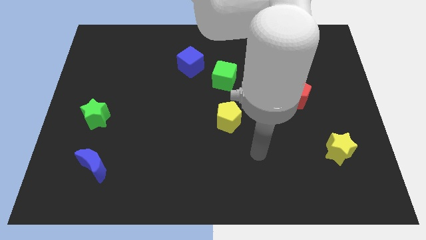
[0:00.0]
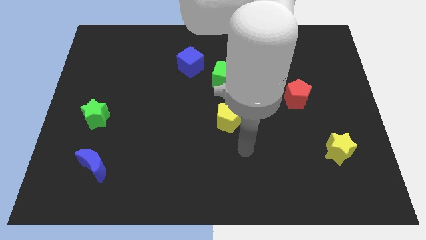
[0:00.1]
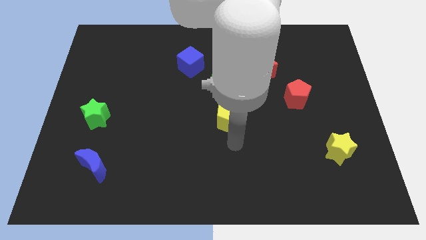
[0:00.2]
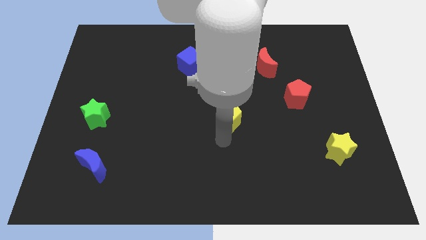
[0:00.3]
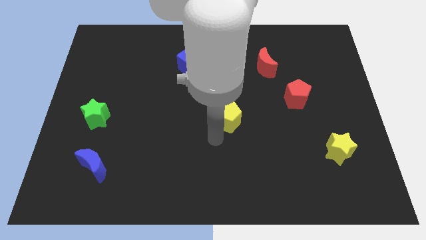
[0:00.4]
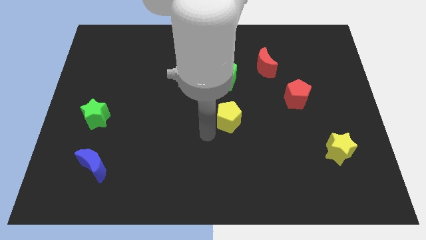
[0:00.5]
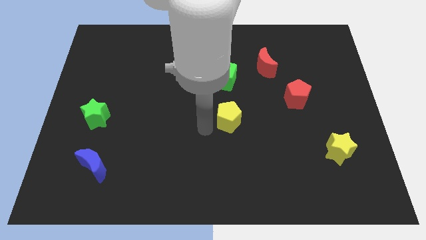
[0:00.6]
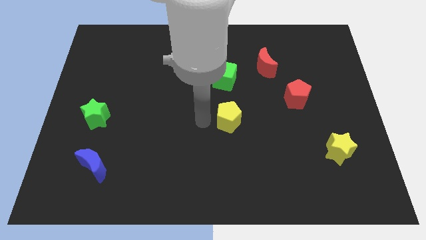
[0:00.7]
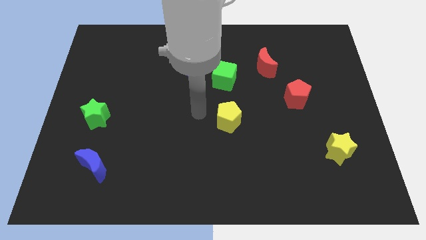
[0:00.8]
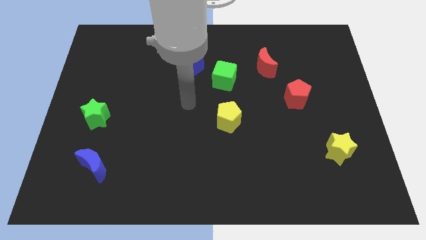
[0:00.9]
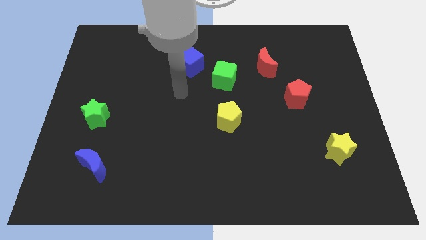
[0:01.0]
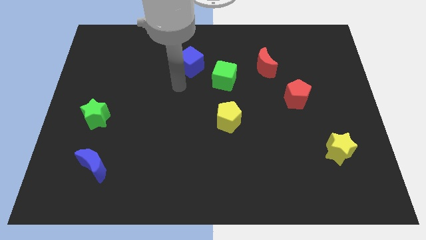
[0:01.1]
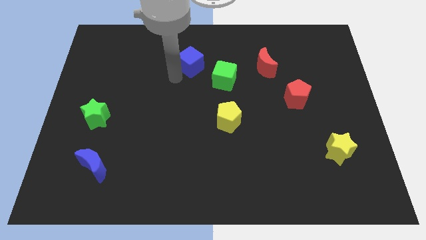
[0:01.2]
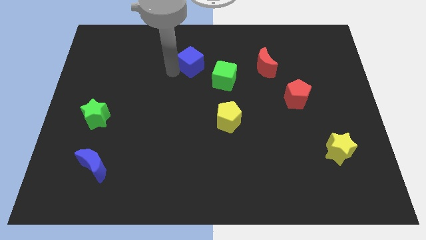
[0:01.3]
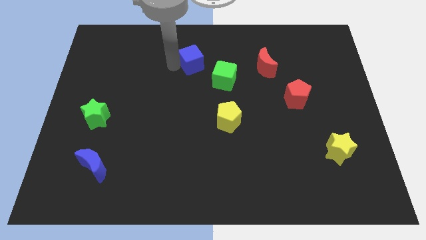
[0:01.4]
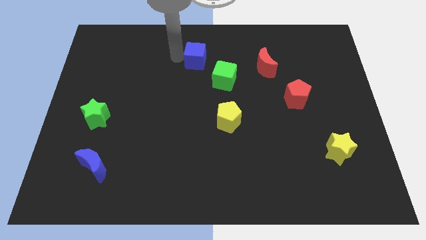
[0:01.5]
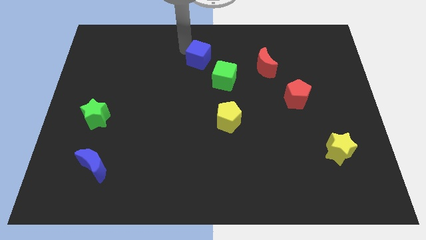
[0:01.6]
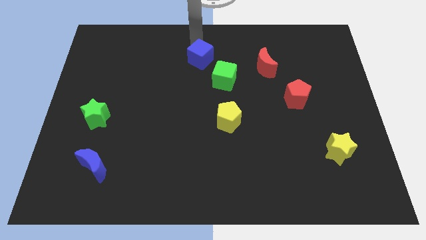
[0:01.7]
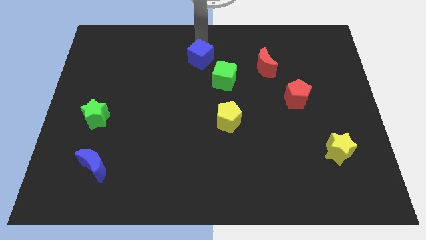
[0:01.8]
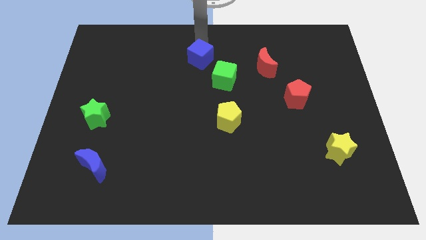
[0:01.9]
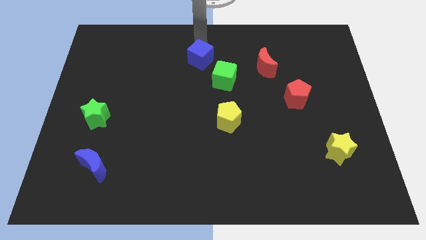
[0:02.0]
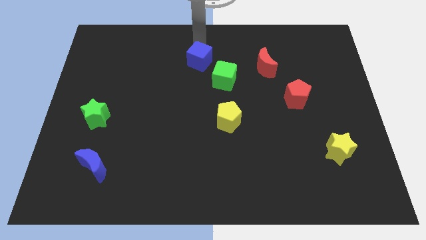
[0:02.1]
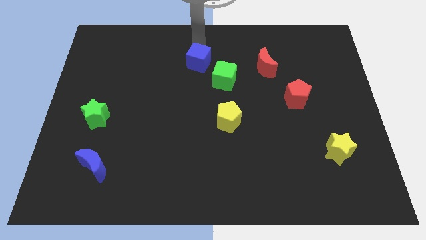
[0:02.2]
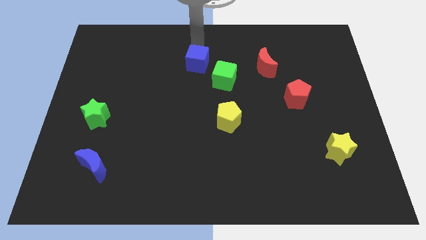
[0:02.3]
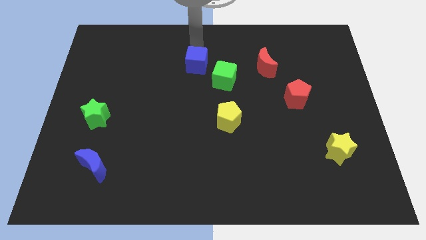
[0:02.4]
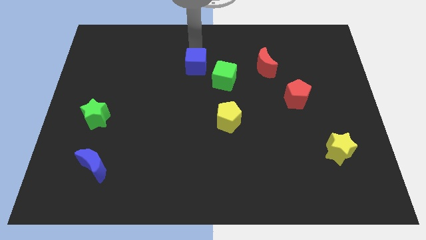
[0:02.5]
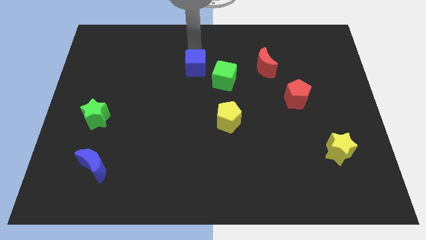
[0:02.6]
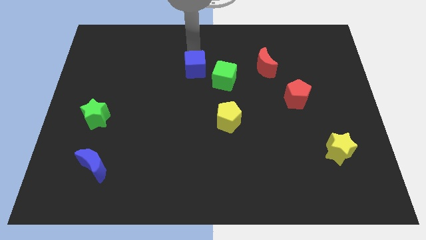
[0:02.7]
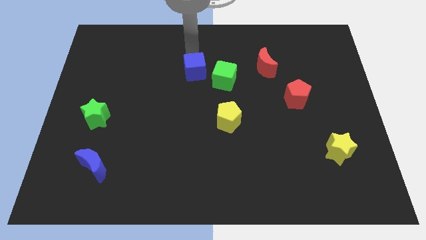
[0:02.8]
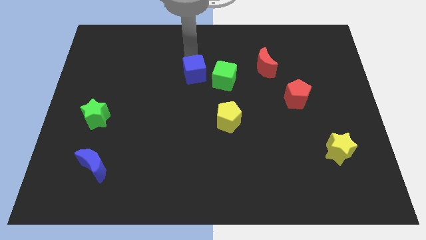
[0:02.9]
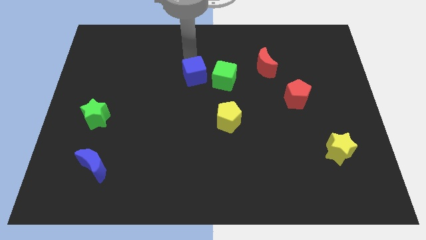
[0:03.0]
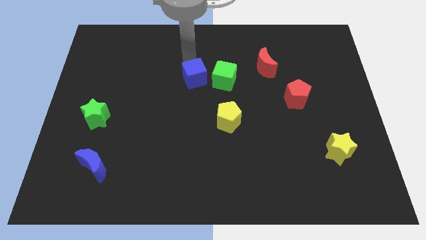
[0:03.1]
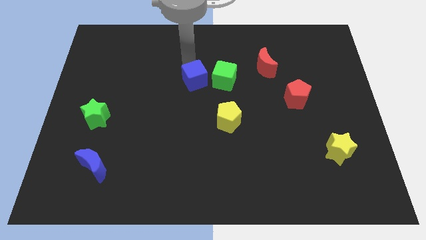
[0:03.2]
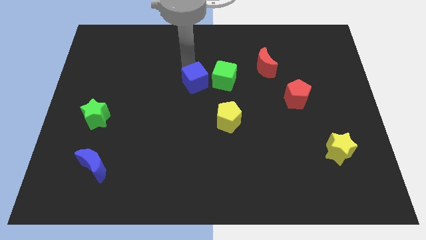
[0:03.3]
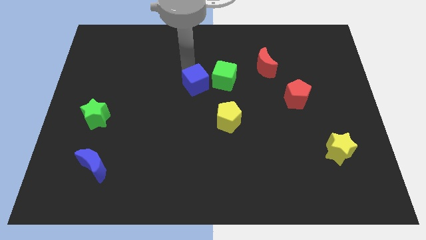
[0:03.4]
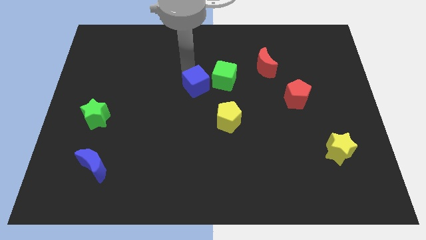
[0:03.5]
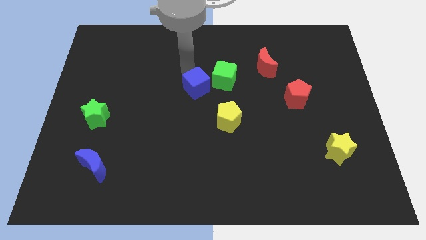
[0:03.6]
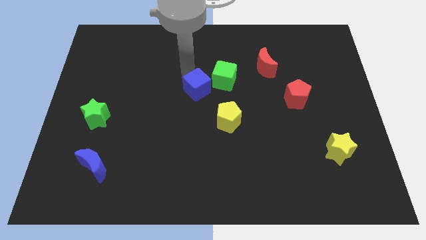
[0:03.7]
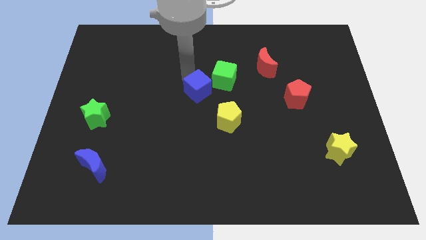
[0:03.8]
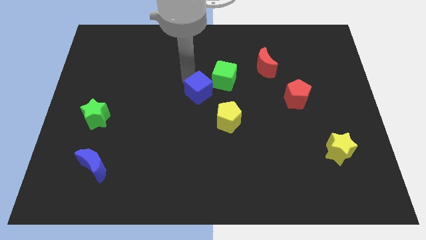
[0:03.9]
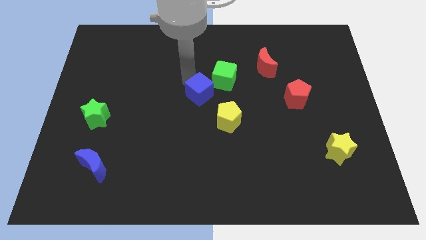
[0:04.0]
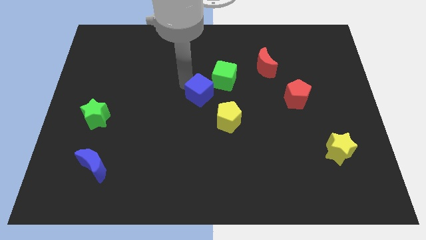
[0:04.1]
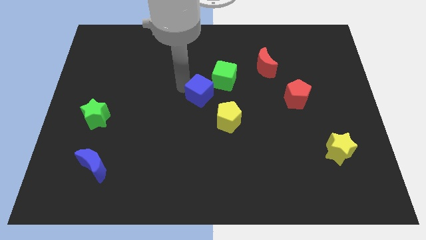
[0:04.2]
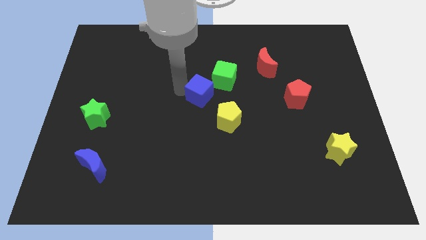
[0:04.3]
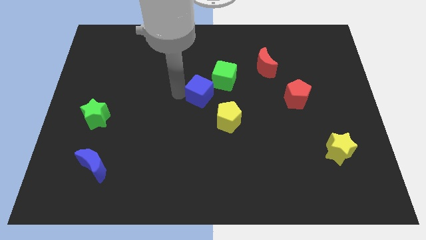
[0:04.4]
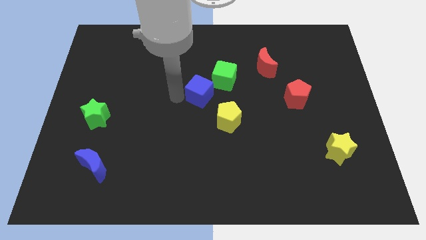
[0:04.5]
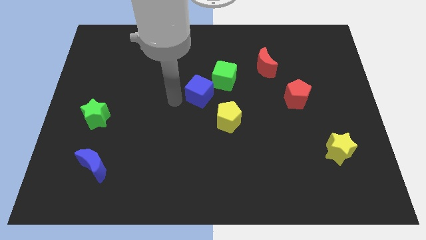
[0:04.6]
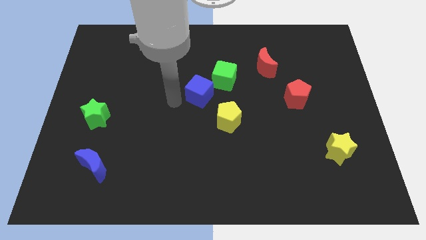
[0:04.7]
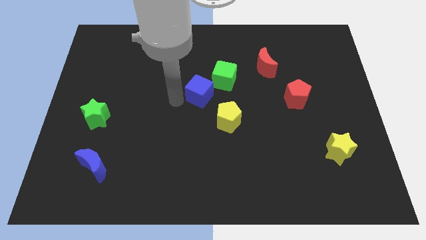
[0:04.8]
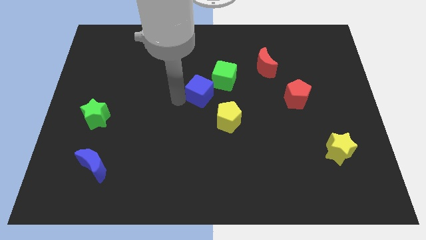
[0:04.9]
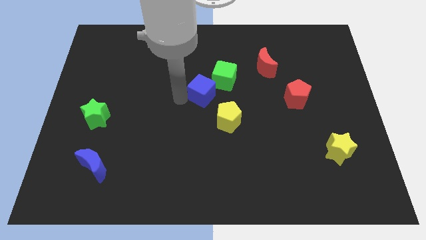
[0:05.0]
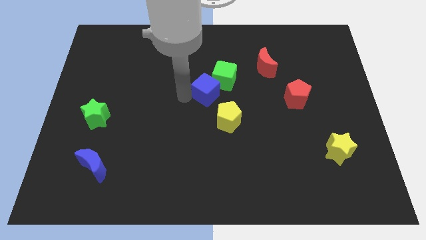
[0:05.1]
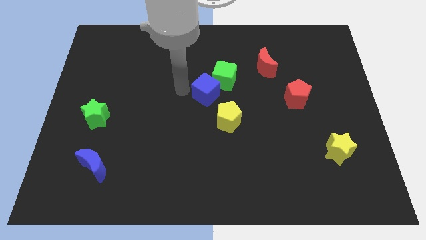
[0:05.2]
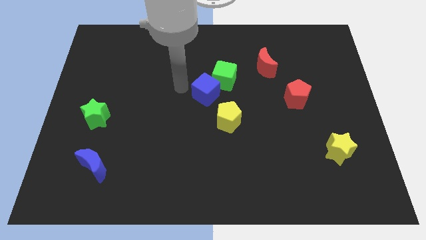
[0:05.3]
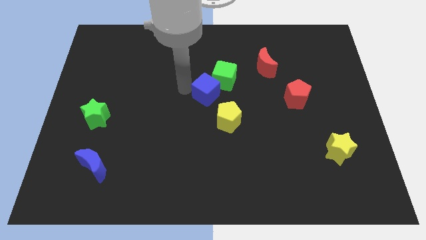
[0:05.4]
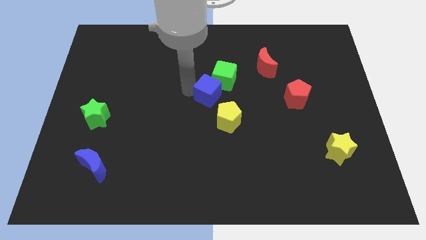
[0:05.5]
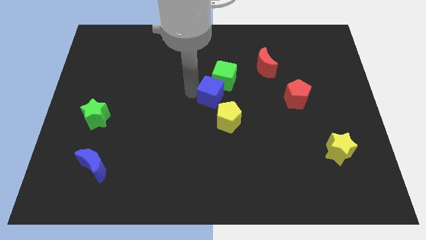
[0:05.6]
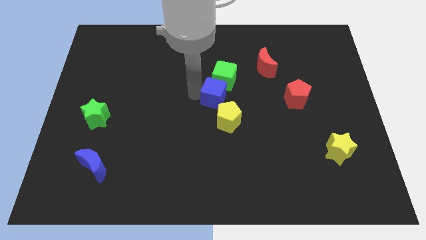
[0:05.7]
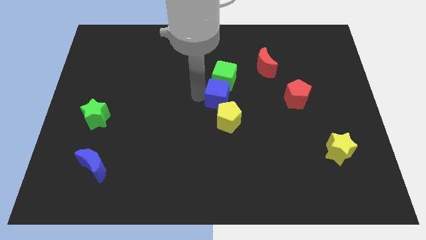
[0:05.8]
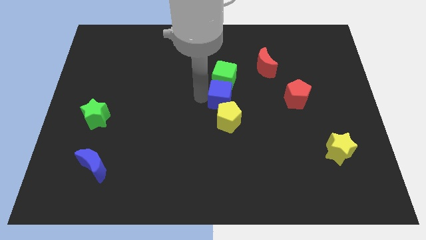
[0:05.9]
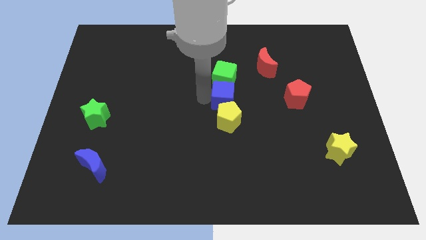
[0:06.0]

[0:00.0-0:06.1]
put the blue cube to the top right side of the yellow pentagon

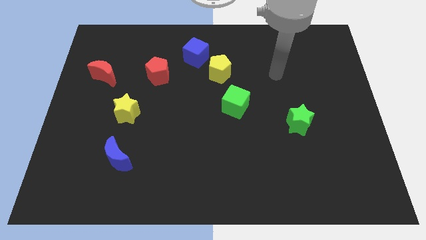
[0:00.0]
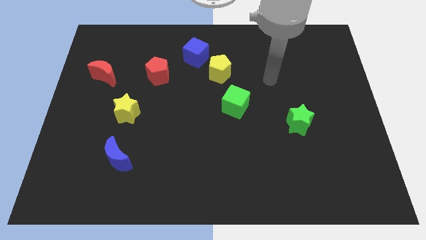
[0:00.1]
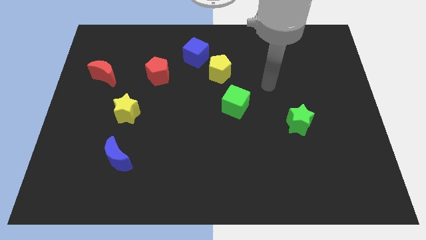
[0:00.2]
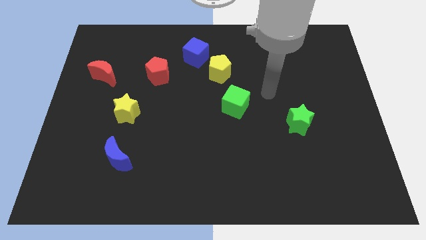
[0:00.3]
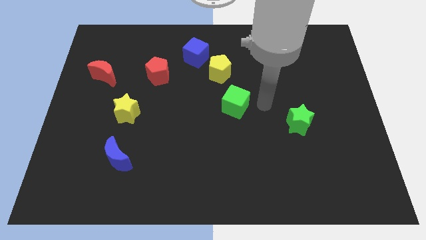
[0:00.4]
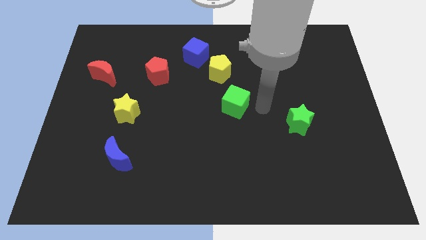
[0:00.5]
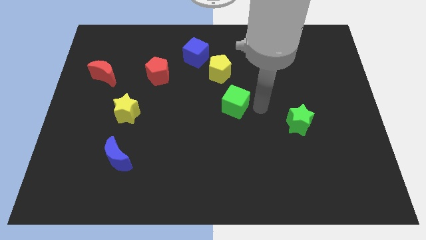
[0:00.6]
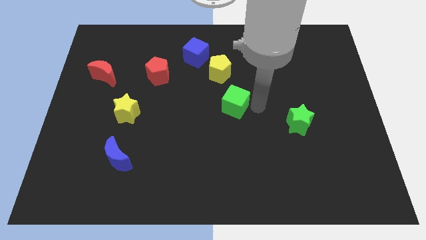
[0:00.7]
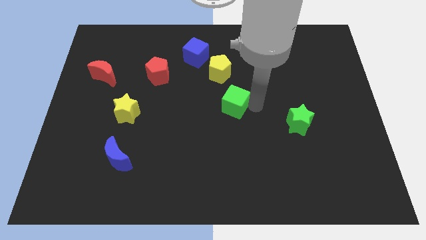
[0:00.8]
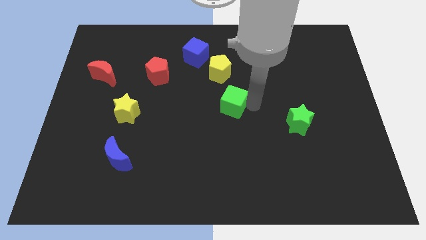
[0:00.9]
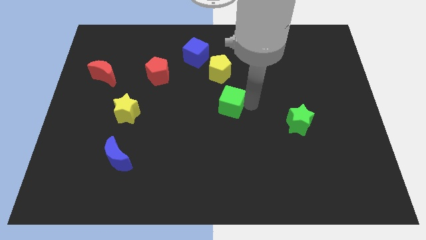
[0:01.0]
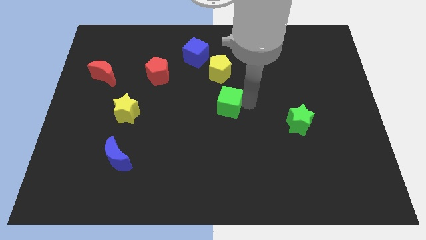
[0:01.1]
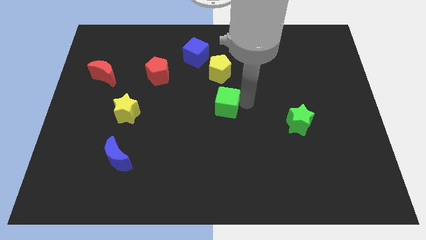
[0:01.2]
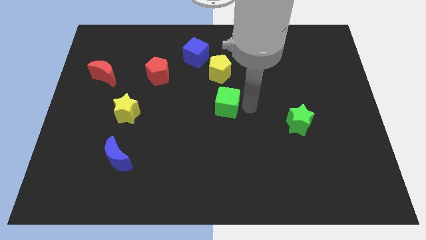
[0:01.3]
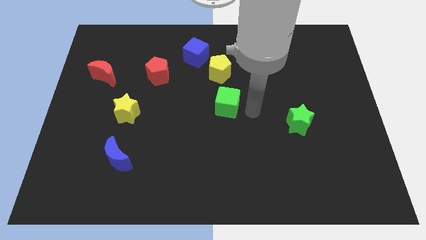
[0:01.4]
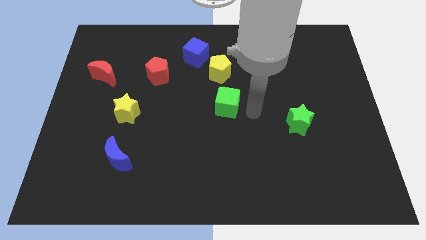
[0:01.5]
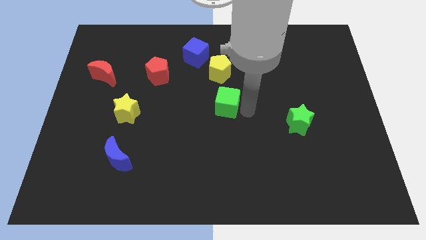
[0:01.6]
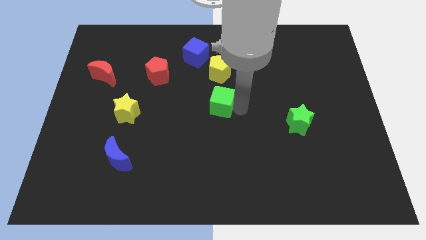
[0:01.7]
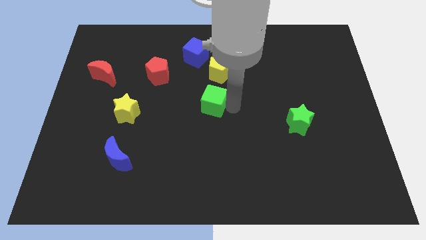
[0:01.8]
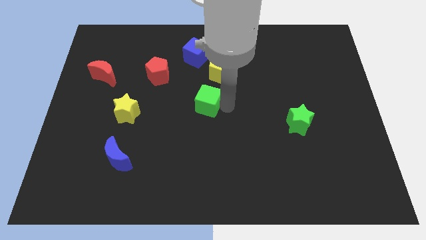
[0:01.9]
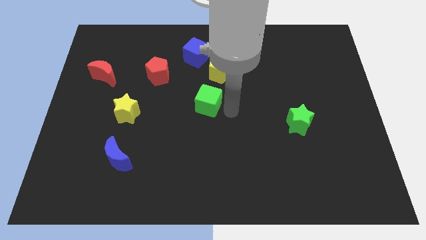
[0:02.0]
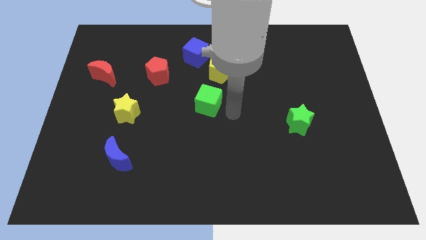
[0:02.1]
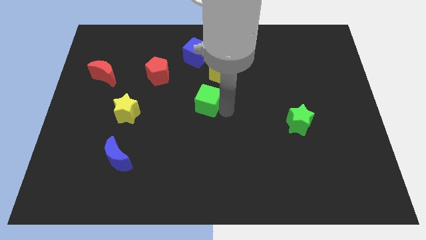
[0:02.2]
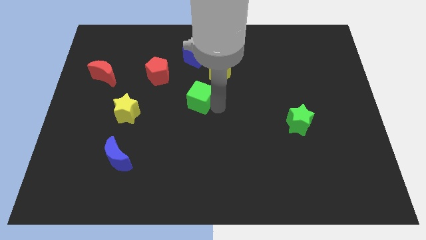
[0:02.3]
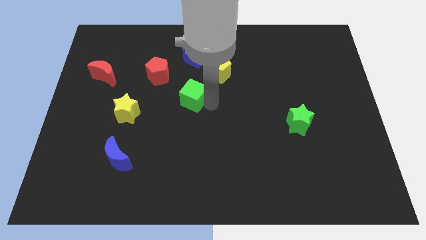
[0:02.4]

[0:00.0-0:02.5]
put the green cube diagonally down and to the right of the red pentagon
